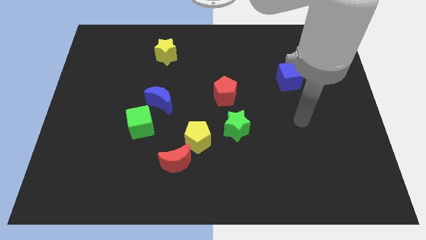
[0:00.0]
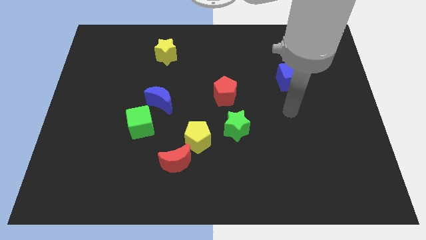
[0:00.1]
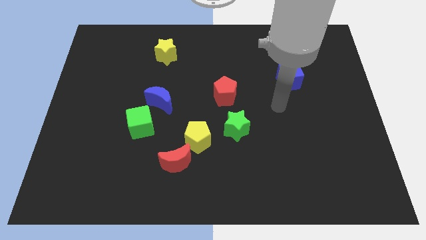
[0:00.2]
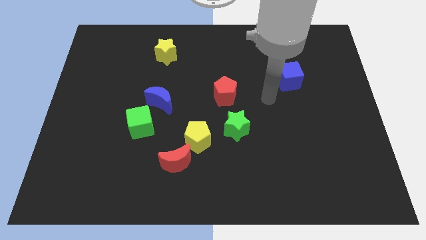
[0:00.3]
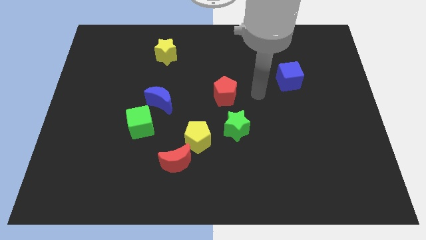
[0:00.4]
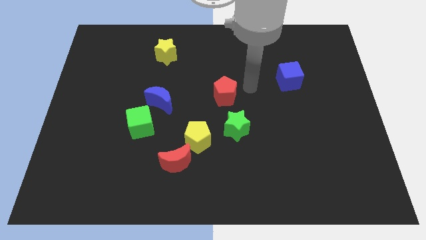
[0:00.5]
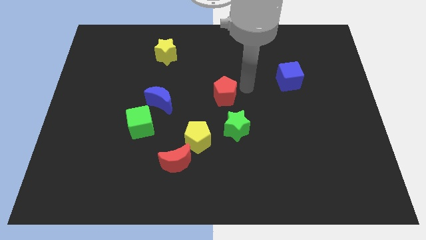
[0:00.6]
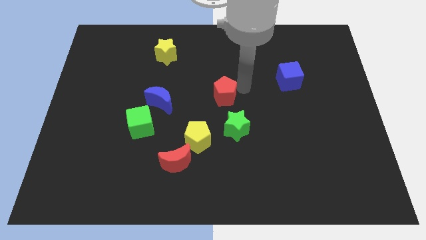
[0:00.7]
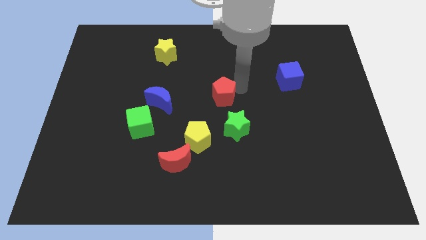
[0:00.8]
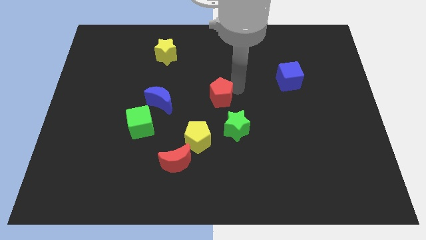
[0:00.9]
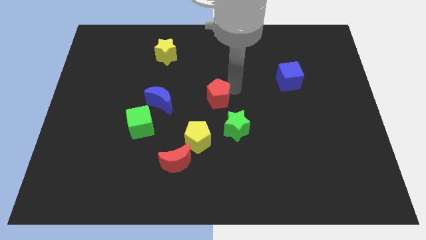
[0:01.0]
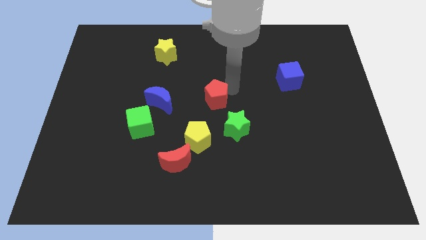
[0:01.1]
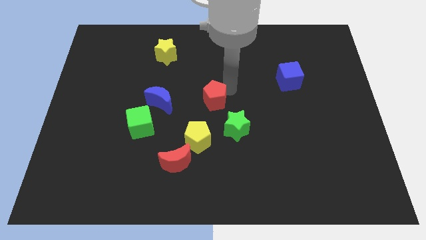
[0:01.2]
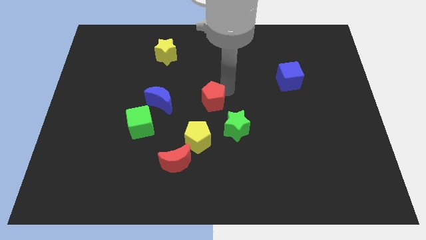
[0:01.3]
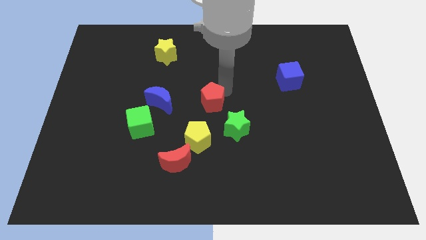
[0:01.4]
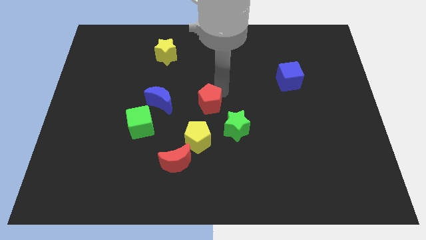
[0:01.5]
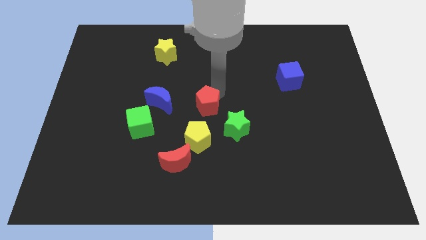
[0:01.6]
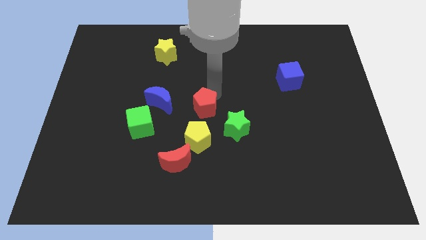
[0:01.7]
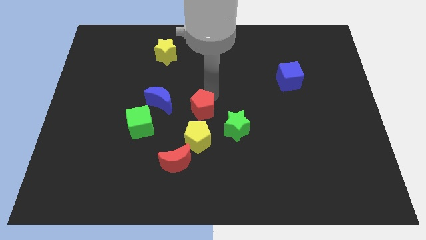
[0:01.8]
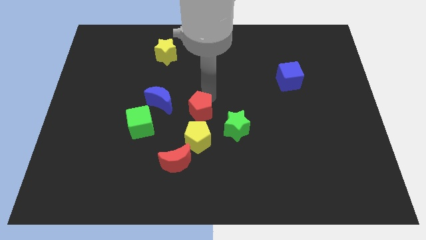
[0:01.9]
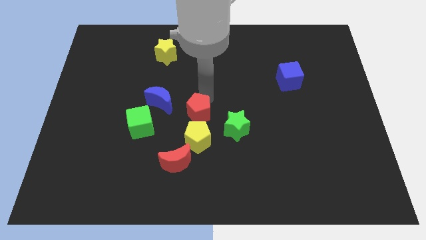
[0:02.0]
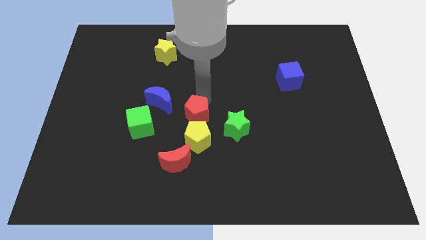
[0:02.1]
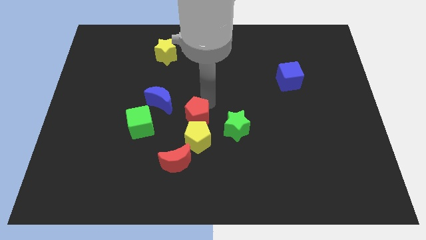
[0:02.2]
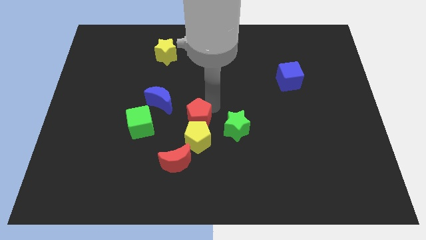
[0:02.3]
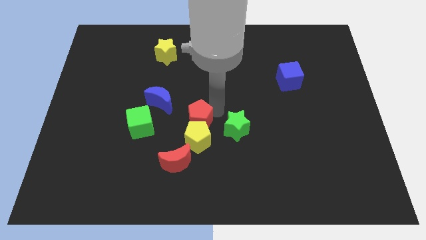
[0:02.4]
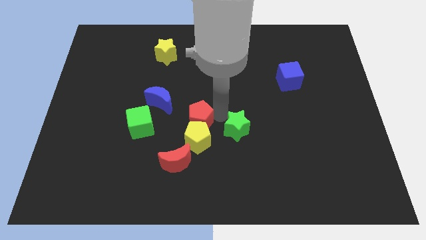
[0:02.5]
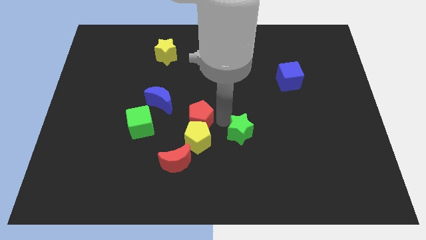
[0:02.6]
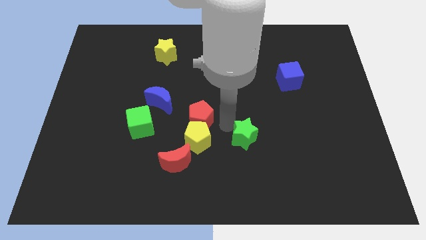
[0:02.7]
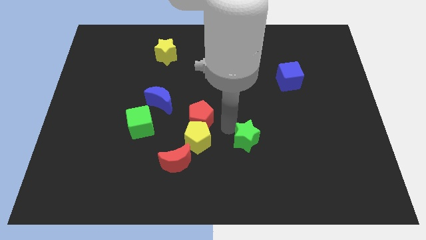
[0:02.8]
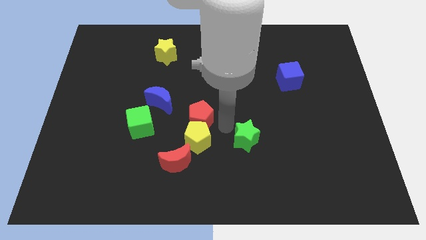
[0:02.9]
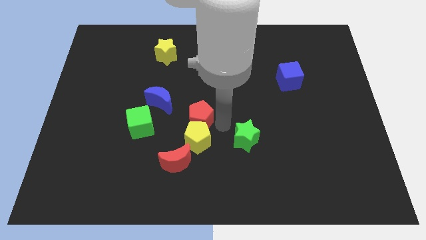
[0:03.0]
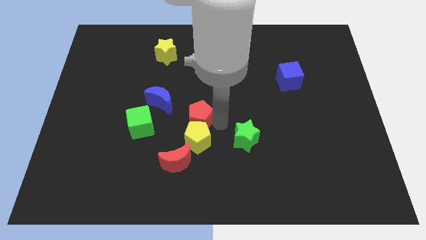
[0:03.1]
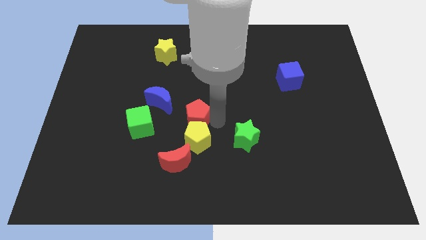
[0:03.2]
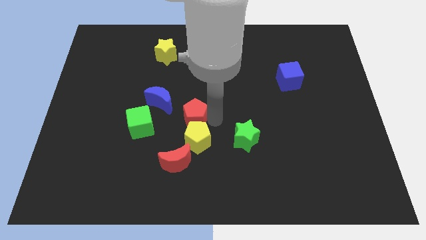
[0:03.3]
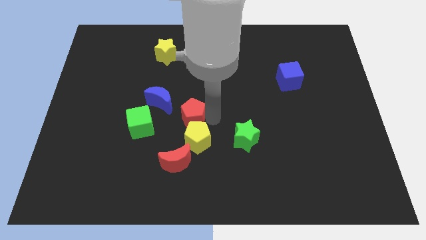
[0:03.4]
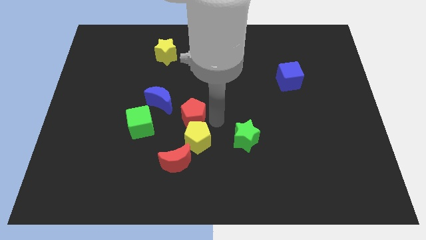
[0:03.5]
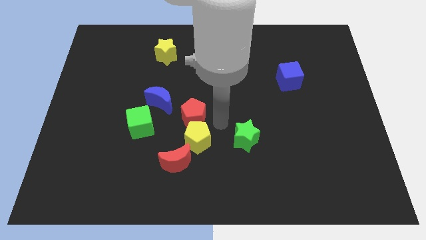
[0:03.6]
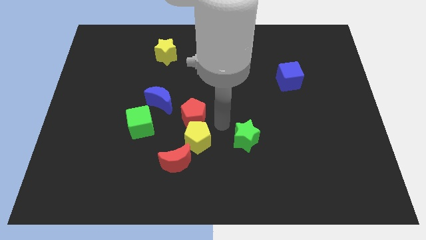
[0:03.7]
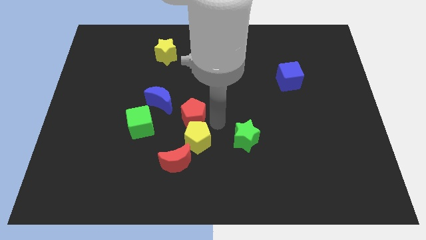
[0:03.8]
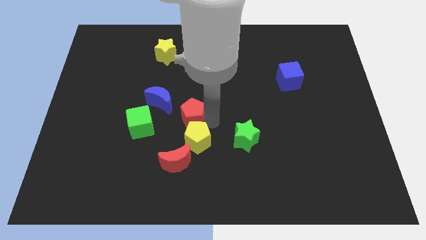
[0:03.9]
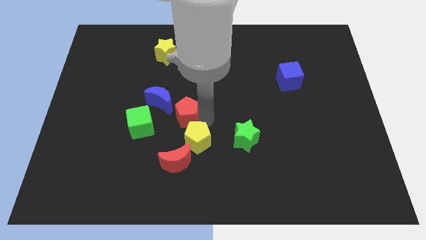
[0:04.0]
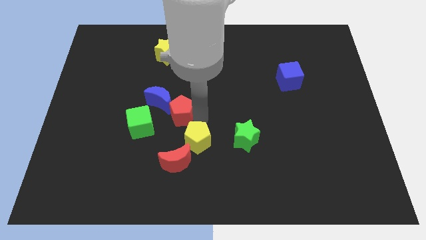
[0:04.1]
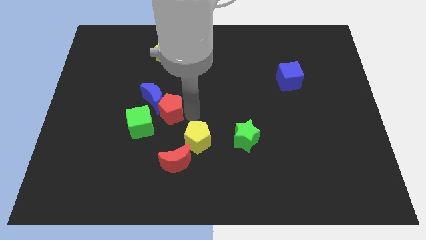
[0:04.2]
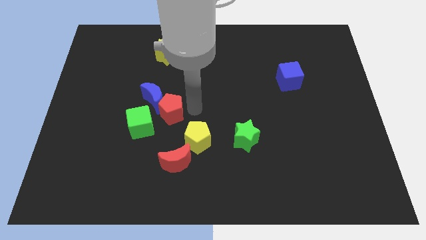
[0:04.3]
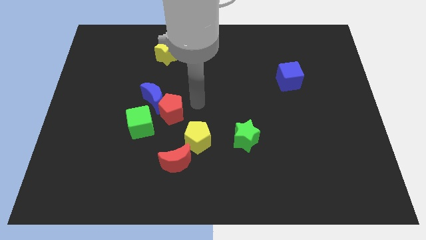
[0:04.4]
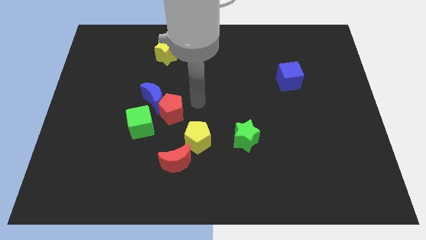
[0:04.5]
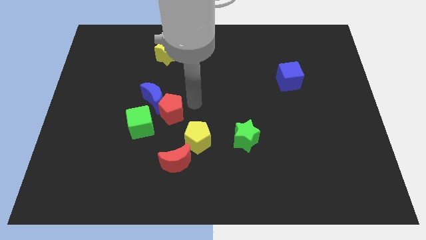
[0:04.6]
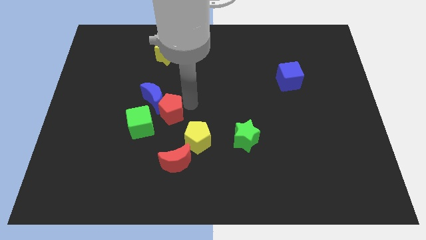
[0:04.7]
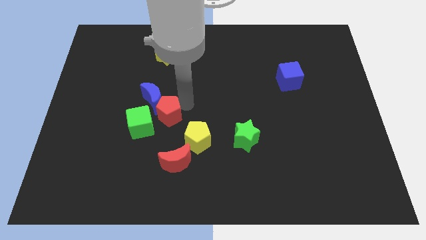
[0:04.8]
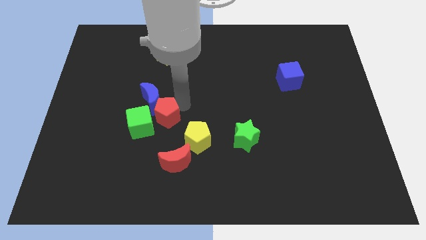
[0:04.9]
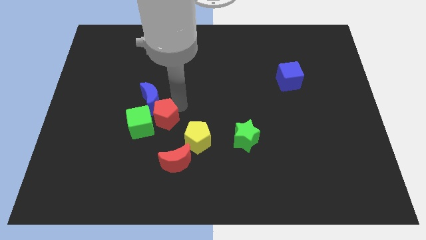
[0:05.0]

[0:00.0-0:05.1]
slide the red pentagon towards the green cube

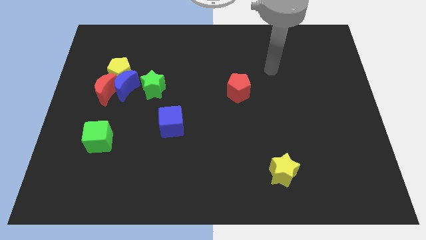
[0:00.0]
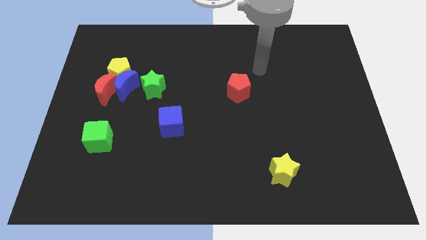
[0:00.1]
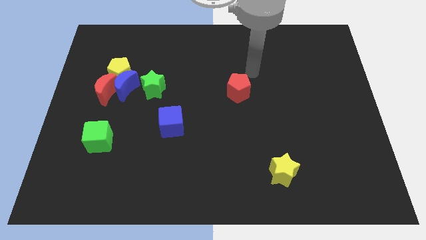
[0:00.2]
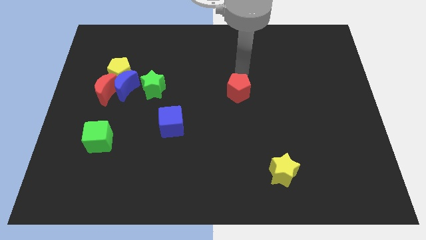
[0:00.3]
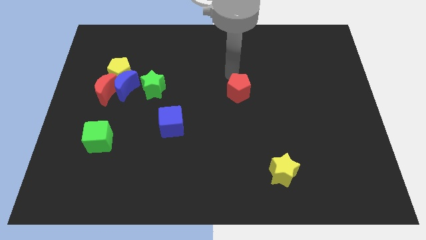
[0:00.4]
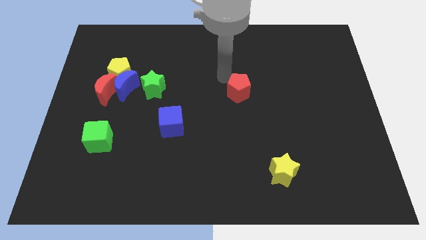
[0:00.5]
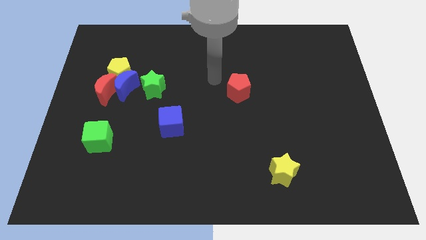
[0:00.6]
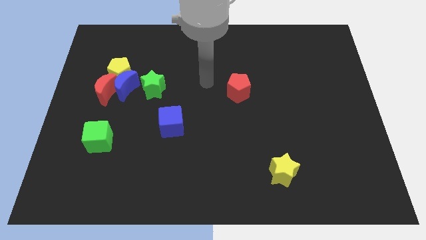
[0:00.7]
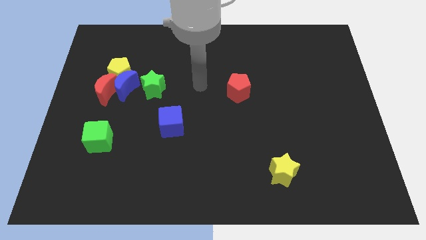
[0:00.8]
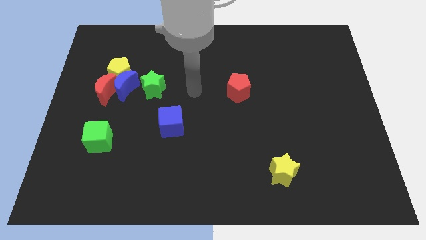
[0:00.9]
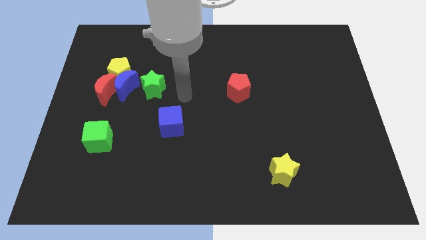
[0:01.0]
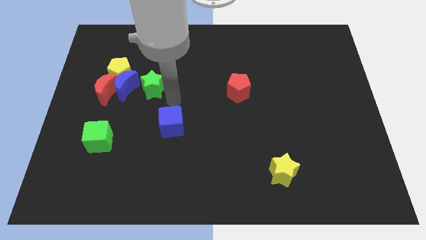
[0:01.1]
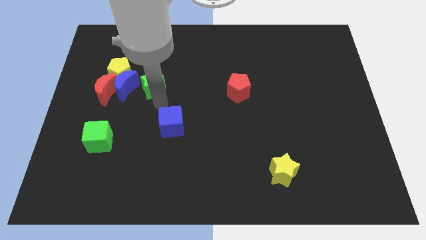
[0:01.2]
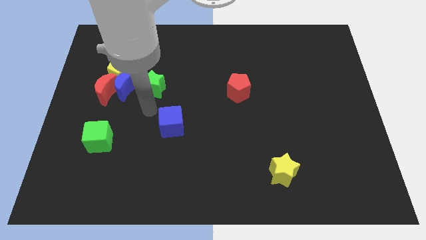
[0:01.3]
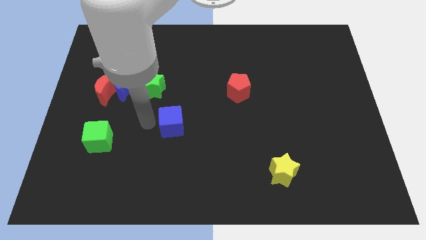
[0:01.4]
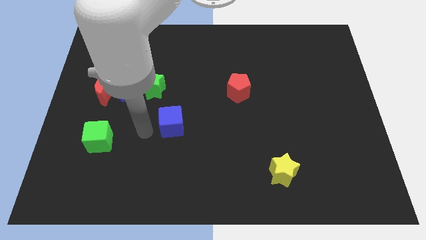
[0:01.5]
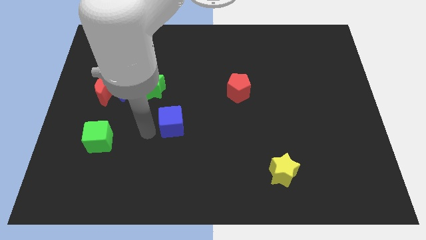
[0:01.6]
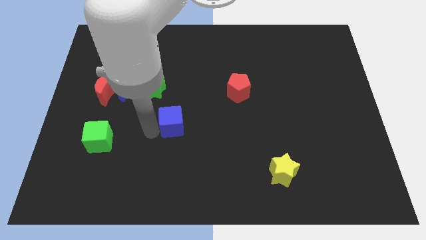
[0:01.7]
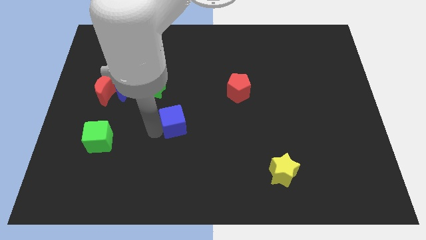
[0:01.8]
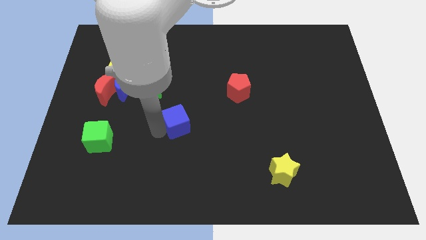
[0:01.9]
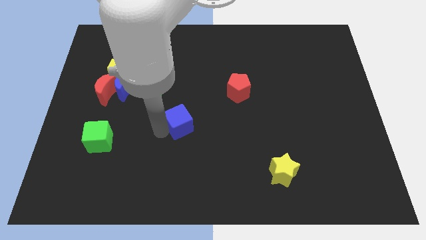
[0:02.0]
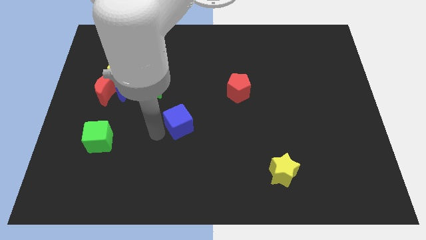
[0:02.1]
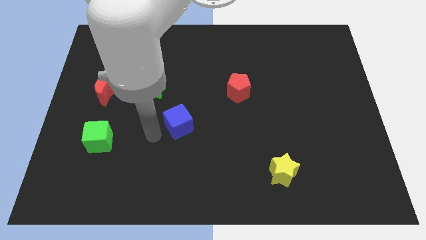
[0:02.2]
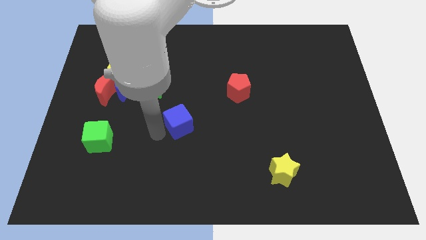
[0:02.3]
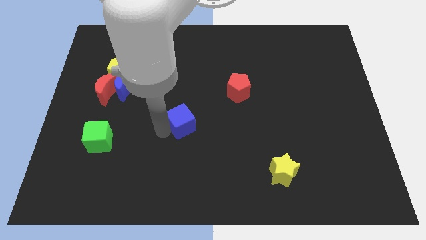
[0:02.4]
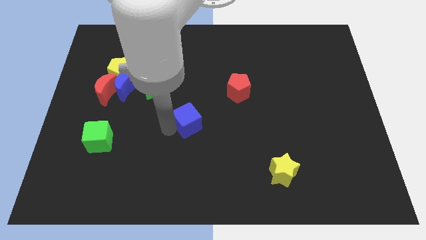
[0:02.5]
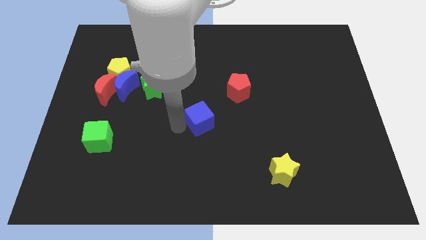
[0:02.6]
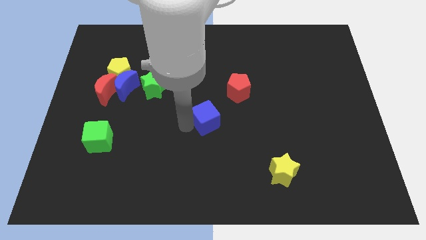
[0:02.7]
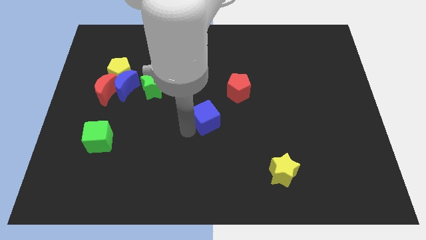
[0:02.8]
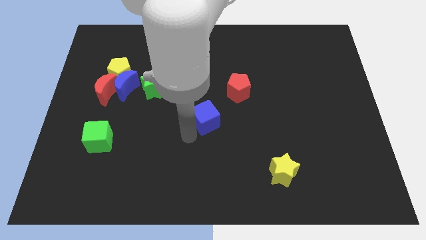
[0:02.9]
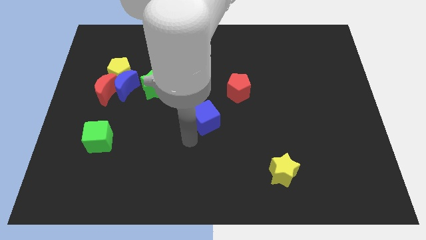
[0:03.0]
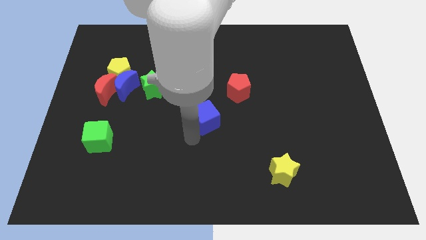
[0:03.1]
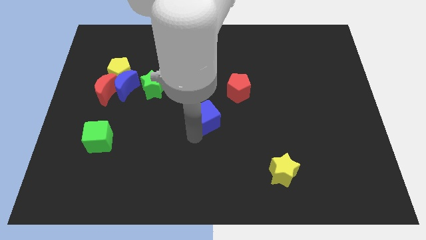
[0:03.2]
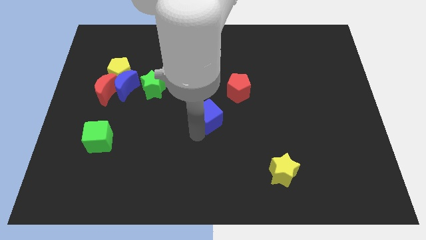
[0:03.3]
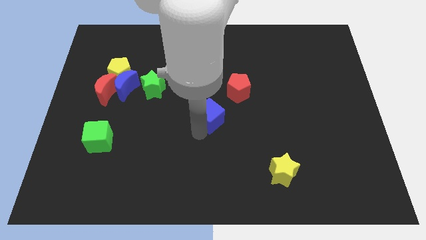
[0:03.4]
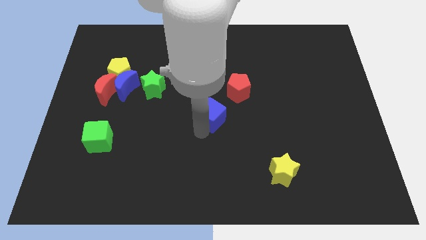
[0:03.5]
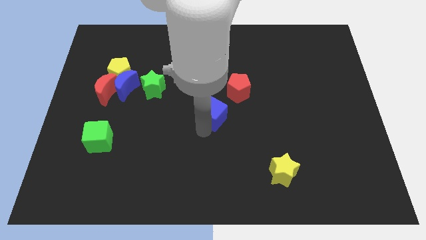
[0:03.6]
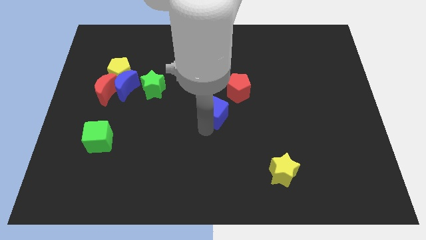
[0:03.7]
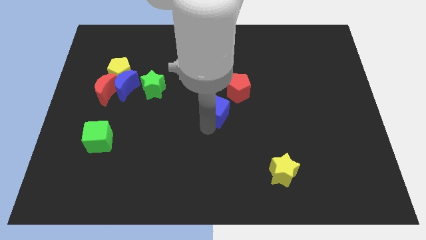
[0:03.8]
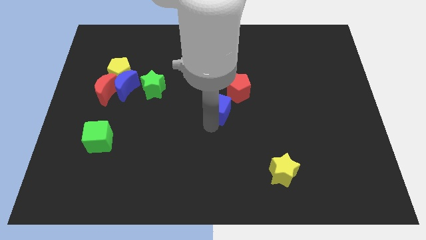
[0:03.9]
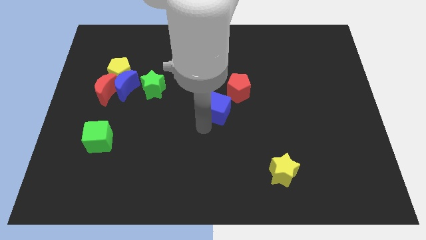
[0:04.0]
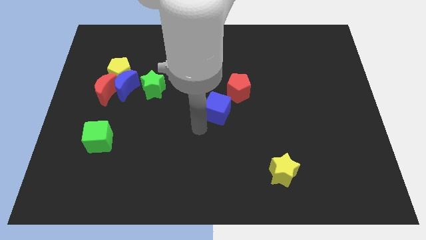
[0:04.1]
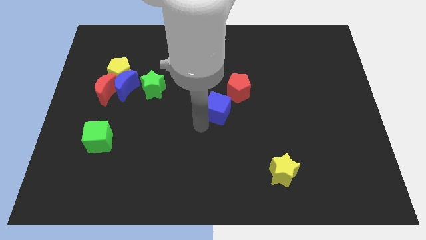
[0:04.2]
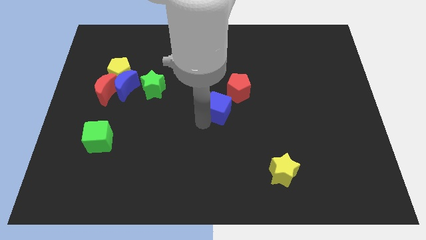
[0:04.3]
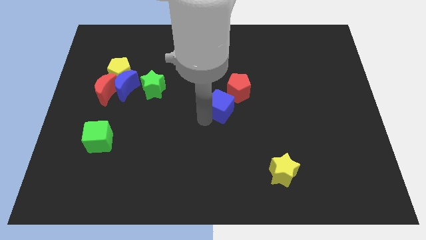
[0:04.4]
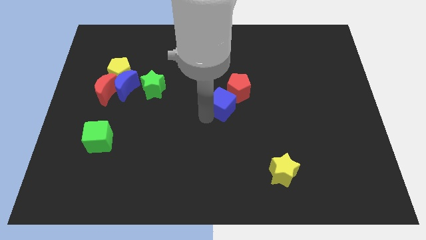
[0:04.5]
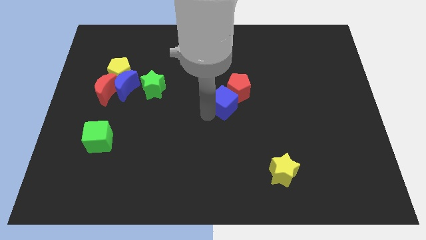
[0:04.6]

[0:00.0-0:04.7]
move the blue cube towards the red pentagon
